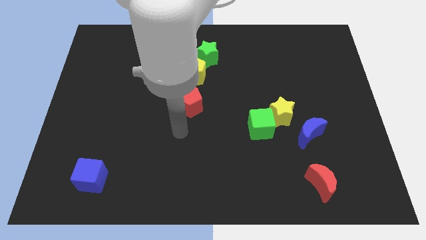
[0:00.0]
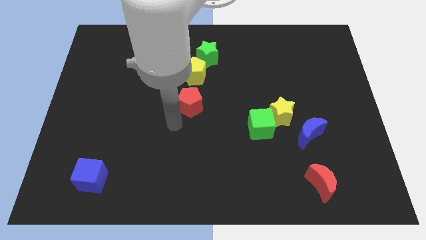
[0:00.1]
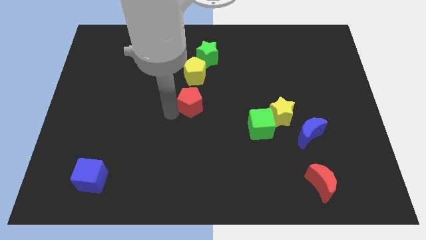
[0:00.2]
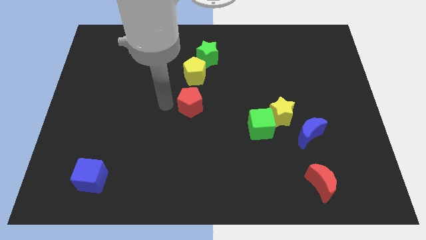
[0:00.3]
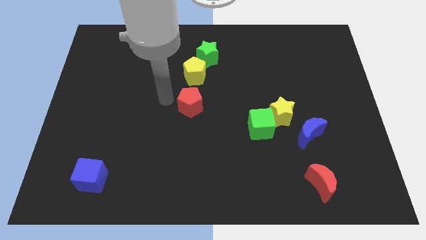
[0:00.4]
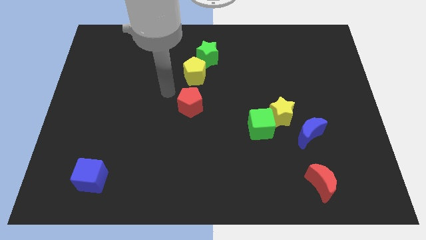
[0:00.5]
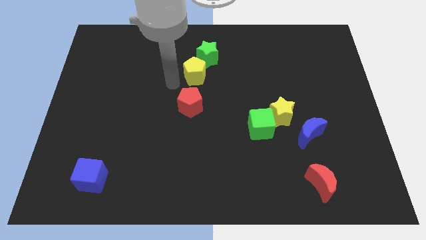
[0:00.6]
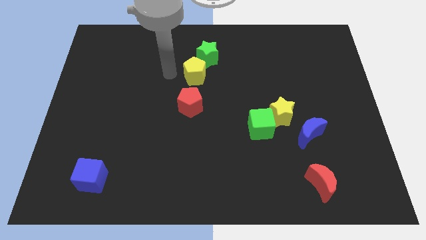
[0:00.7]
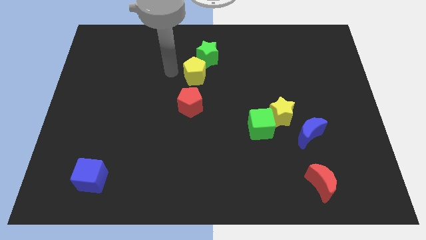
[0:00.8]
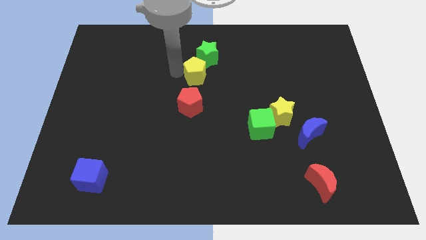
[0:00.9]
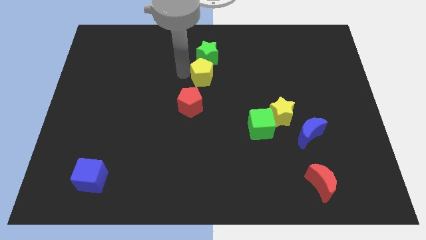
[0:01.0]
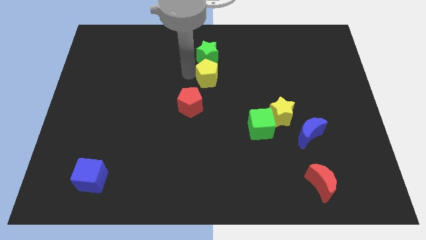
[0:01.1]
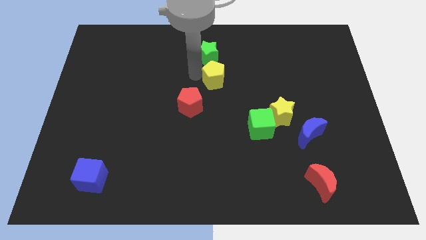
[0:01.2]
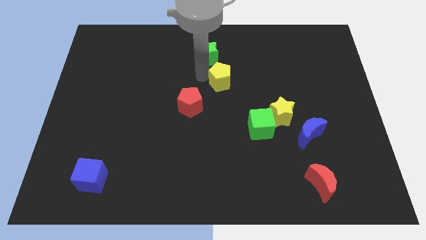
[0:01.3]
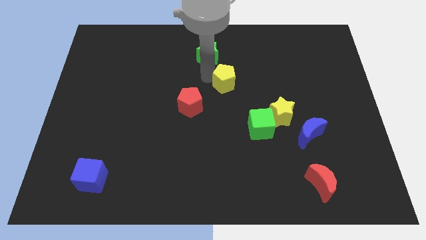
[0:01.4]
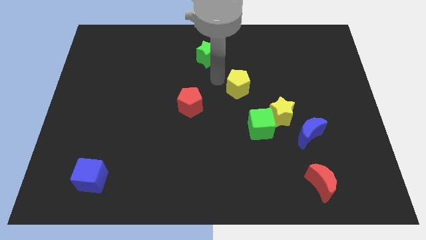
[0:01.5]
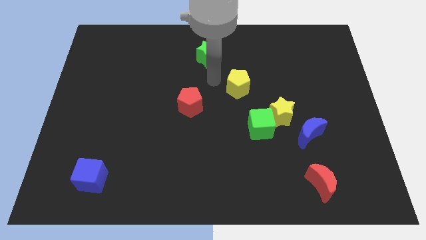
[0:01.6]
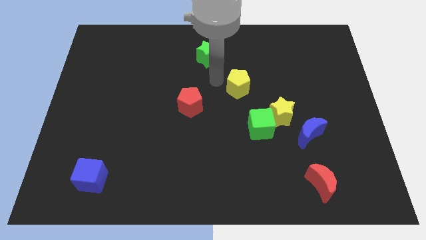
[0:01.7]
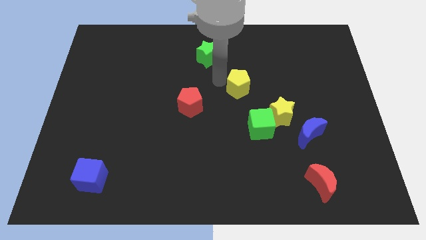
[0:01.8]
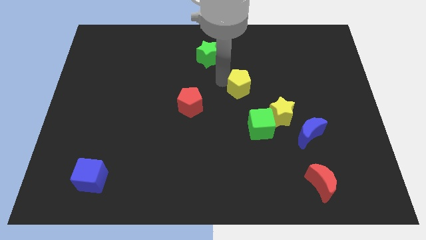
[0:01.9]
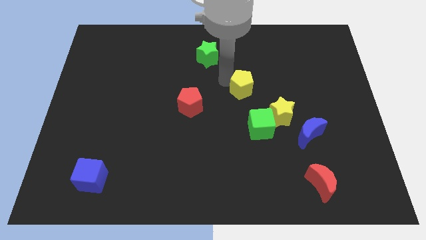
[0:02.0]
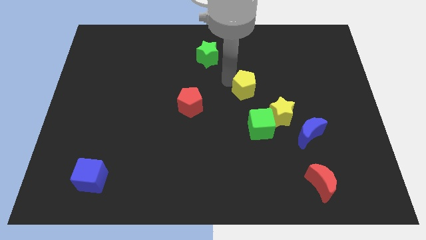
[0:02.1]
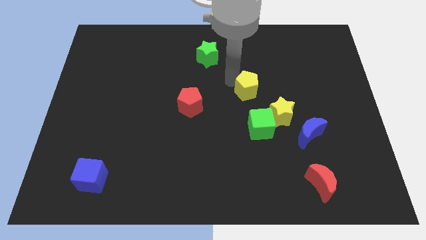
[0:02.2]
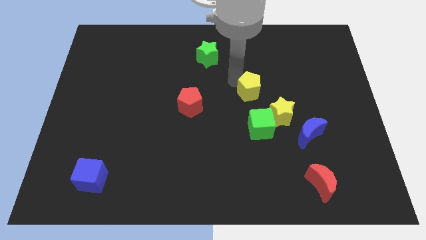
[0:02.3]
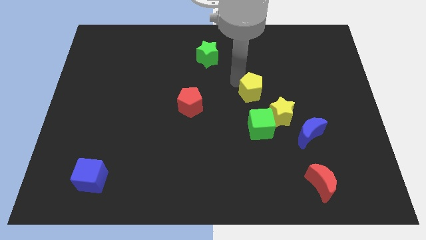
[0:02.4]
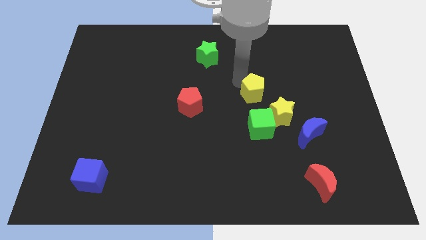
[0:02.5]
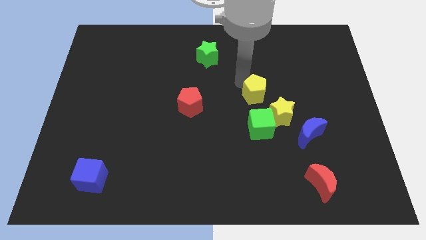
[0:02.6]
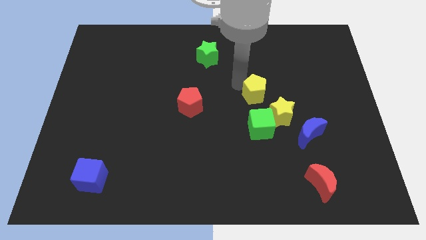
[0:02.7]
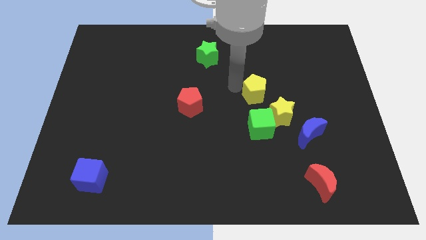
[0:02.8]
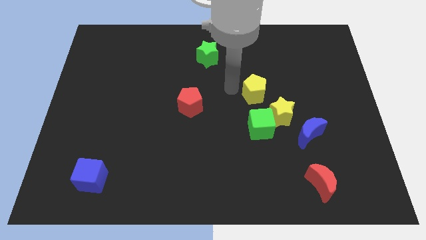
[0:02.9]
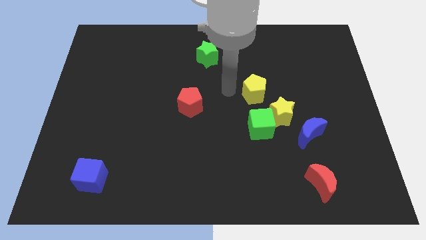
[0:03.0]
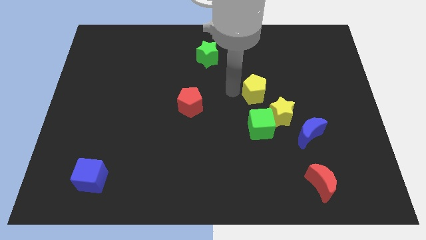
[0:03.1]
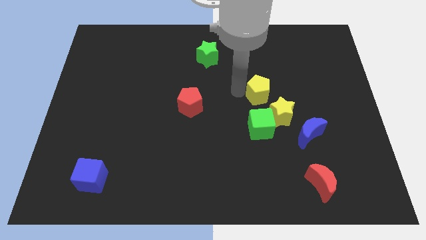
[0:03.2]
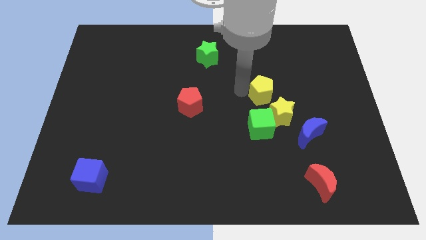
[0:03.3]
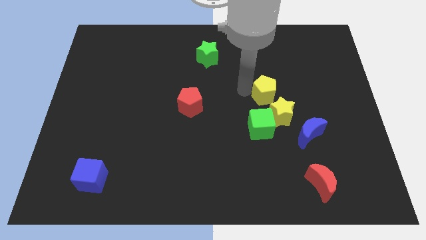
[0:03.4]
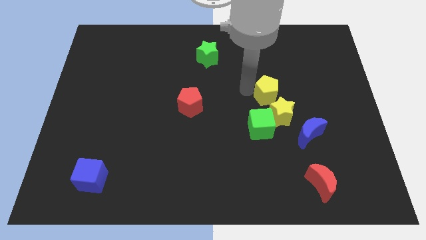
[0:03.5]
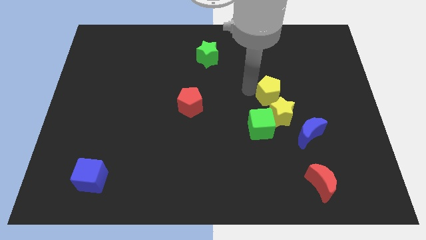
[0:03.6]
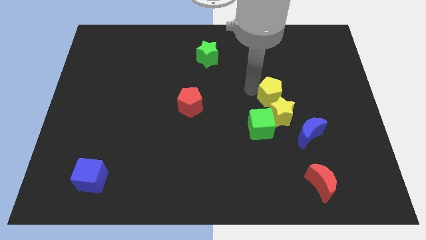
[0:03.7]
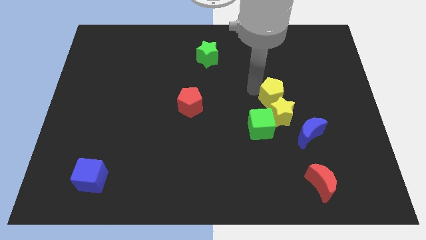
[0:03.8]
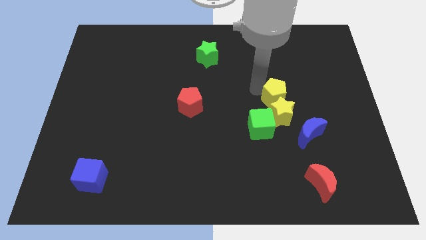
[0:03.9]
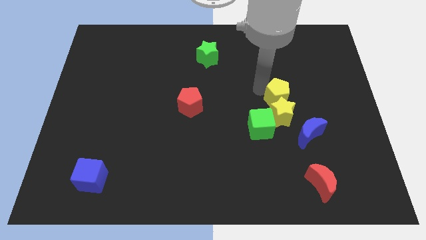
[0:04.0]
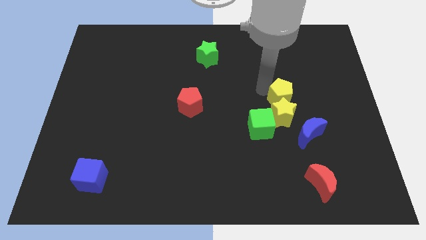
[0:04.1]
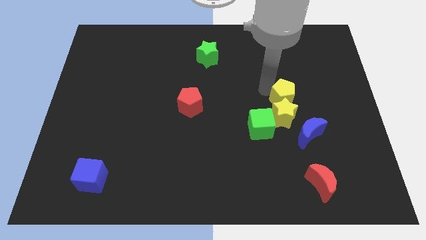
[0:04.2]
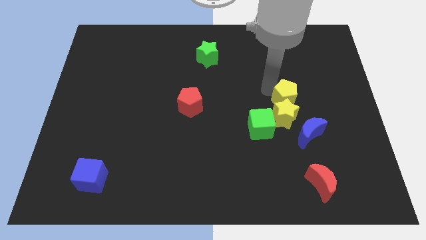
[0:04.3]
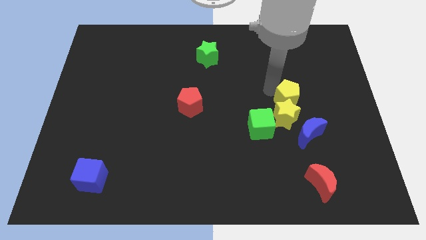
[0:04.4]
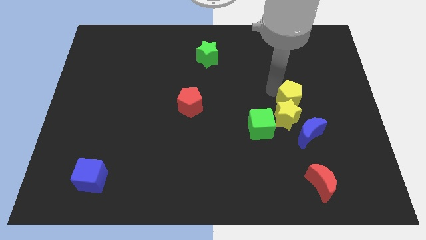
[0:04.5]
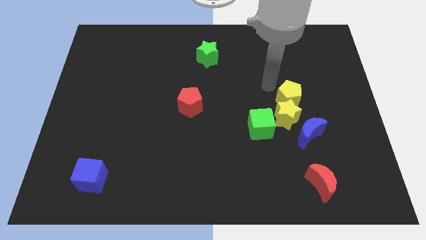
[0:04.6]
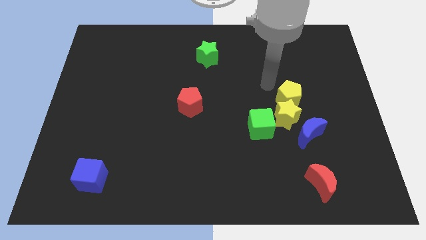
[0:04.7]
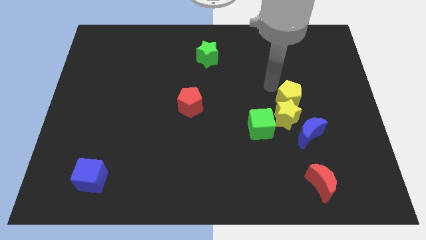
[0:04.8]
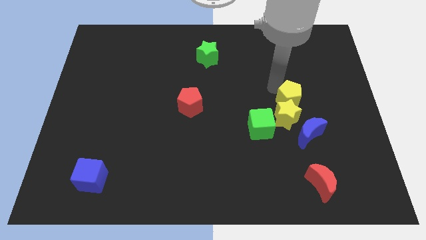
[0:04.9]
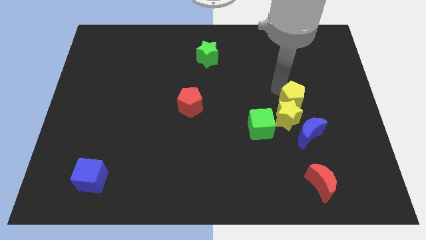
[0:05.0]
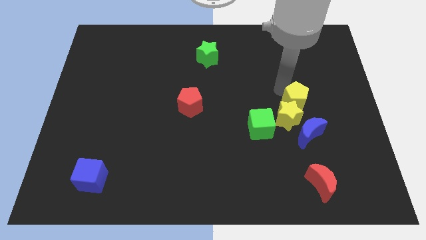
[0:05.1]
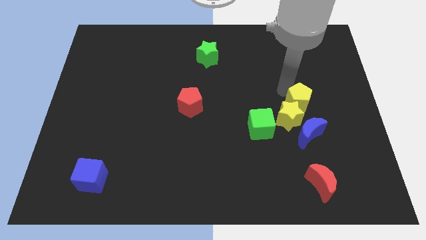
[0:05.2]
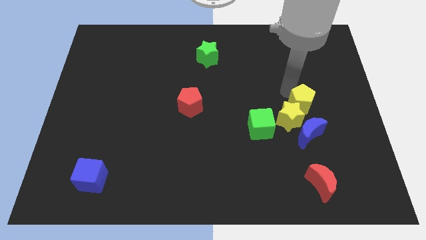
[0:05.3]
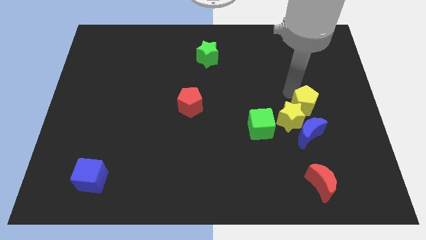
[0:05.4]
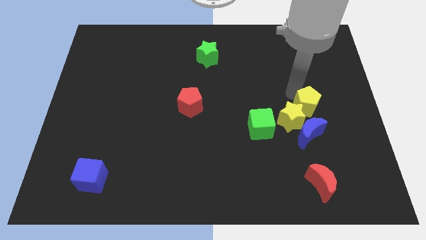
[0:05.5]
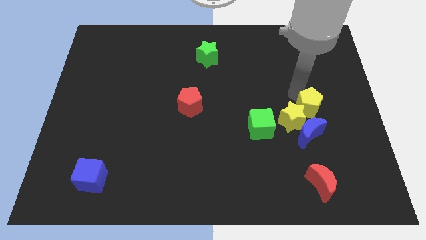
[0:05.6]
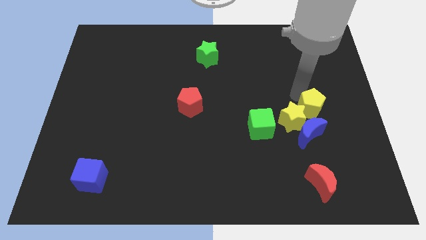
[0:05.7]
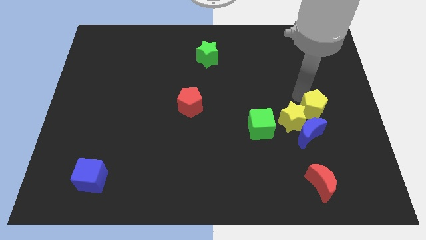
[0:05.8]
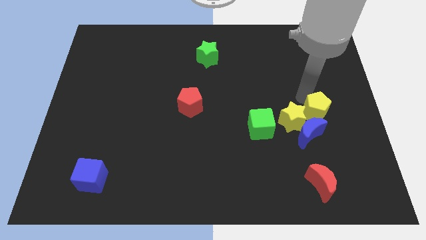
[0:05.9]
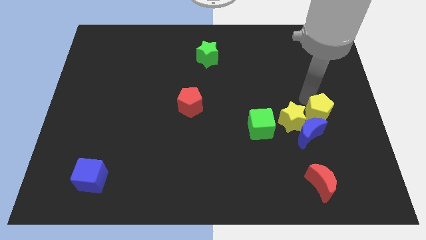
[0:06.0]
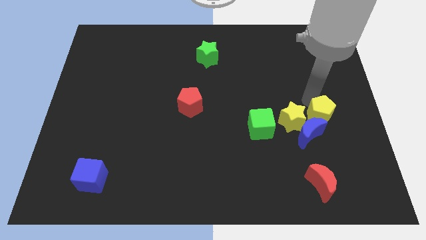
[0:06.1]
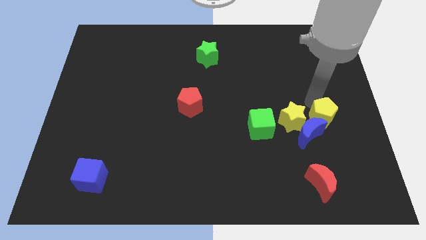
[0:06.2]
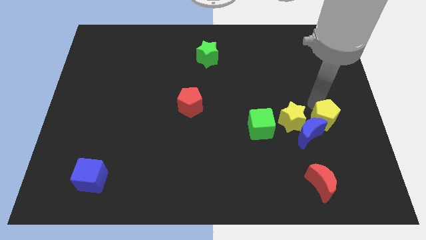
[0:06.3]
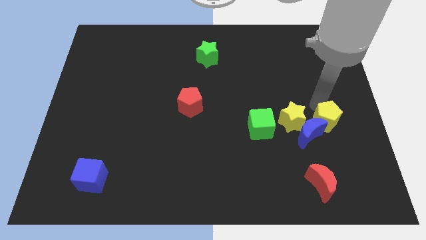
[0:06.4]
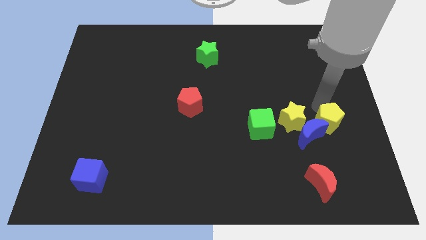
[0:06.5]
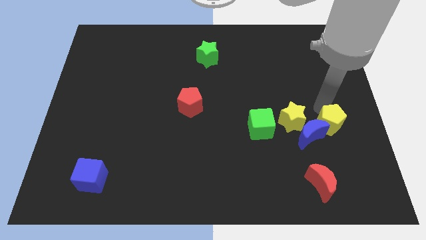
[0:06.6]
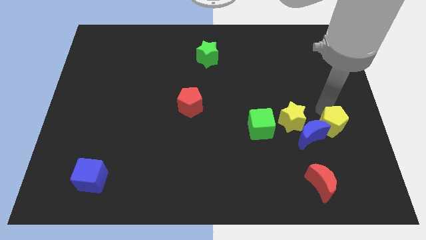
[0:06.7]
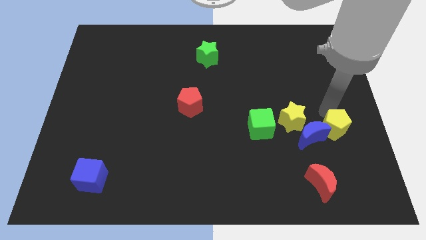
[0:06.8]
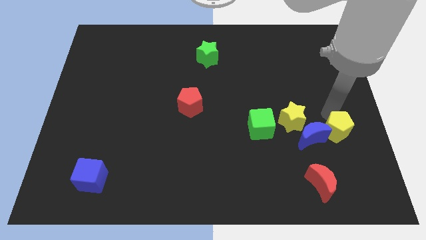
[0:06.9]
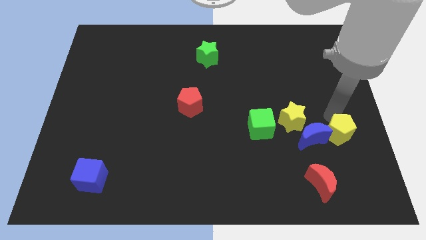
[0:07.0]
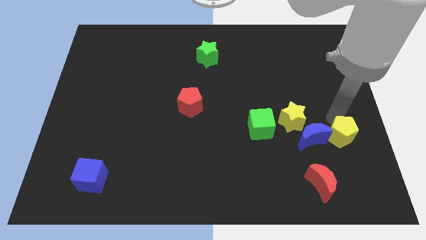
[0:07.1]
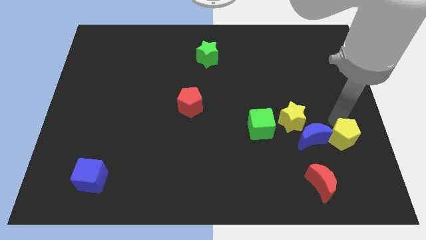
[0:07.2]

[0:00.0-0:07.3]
move the yellow pentagon to the bottom right side of the blue moon
